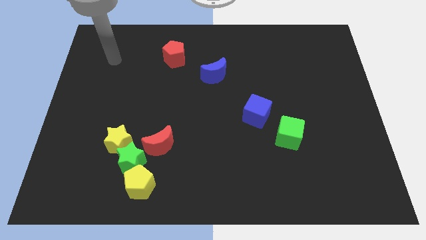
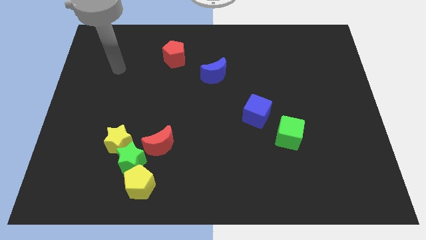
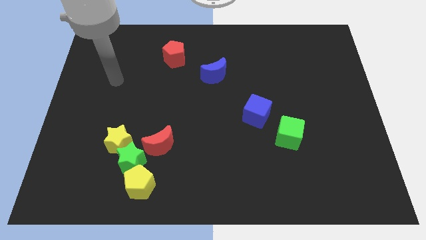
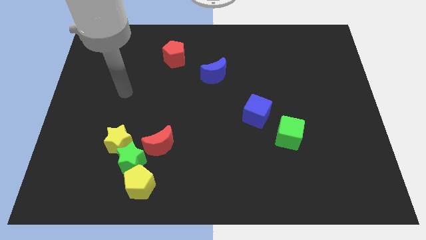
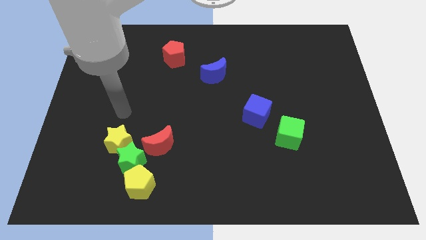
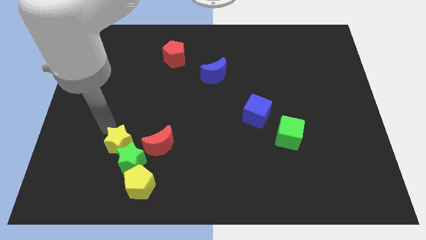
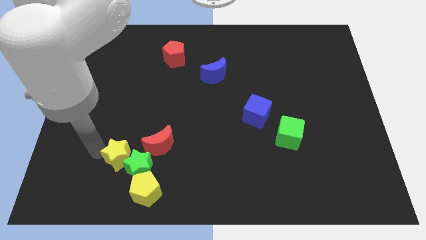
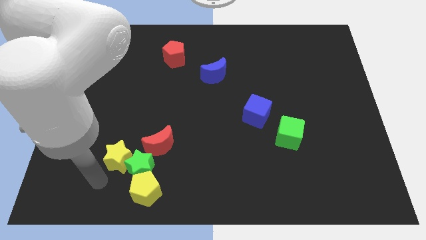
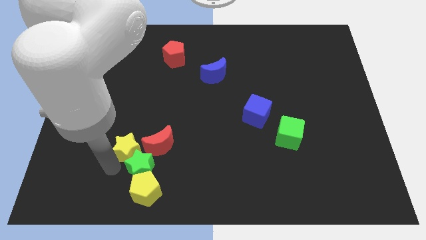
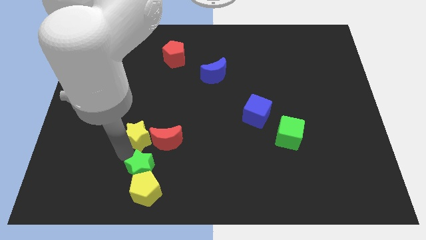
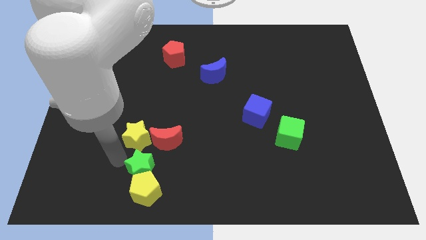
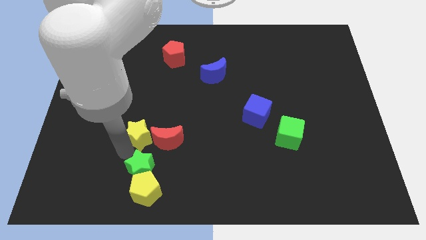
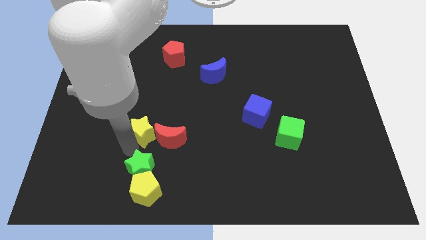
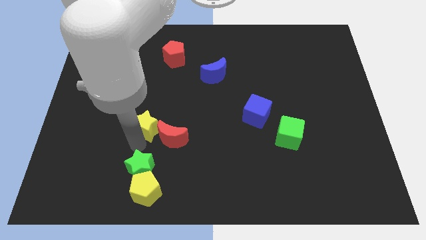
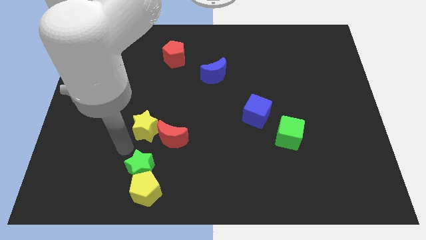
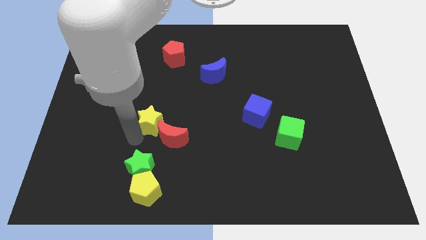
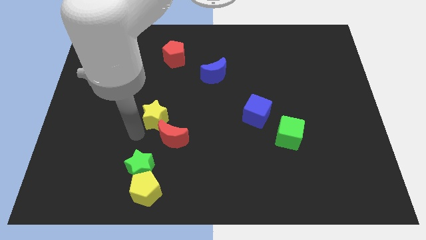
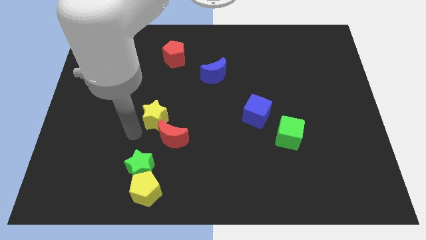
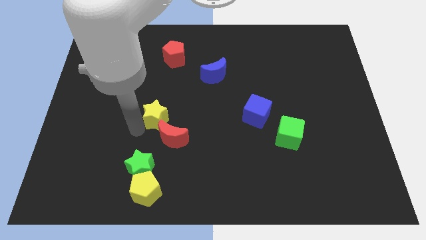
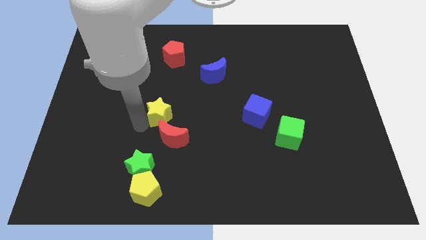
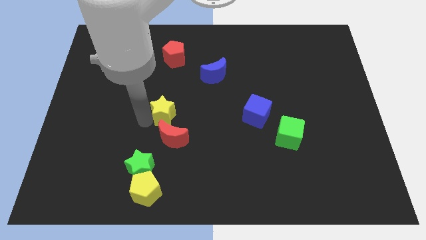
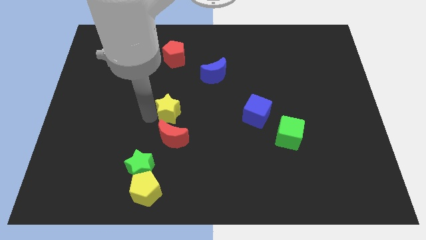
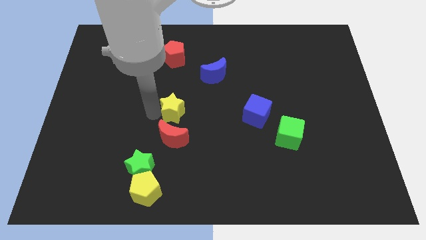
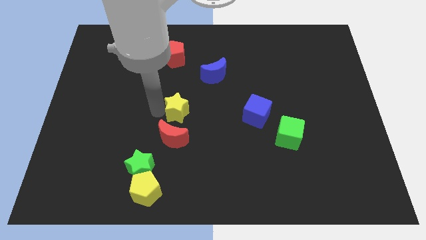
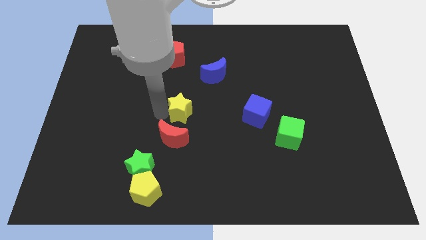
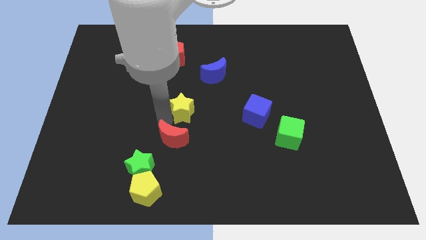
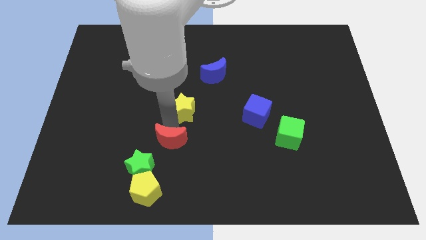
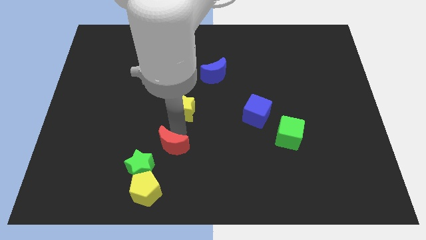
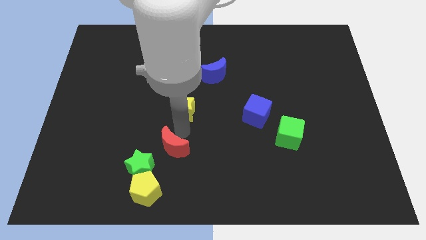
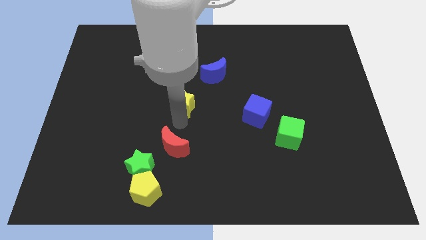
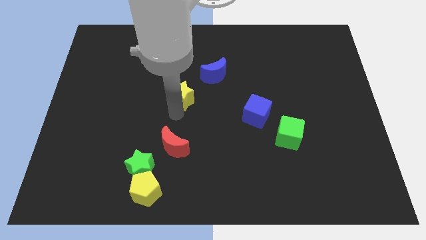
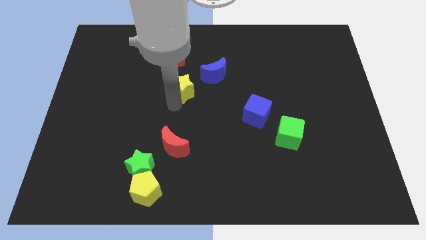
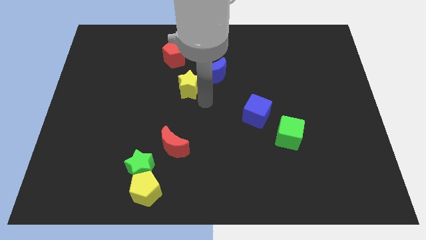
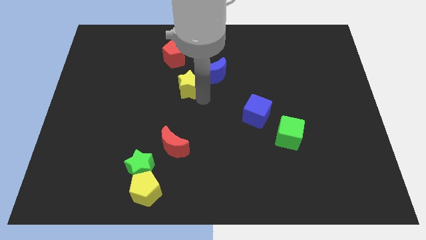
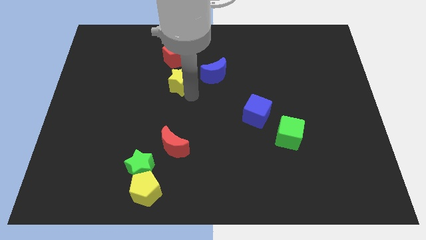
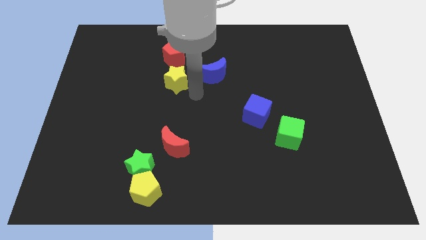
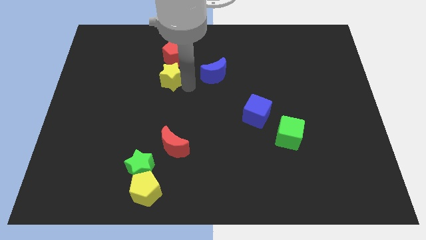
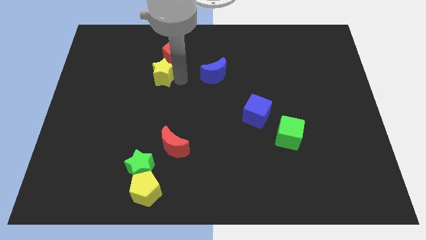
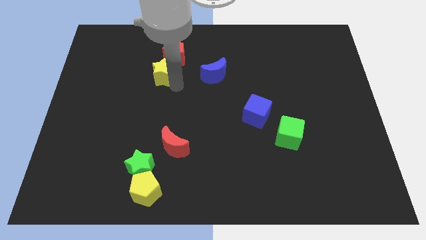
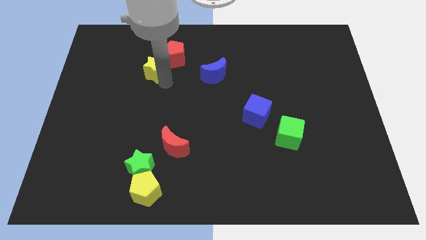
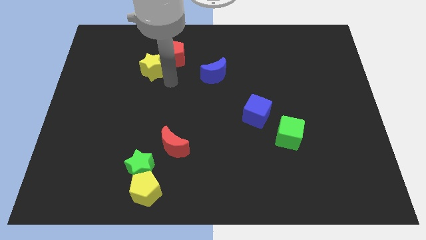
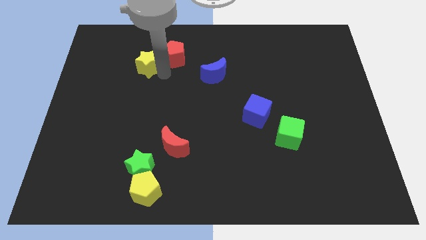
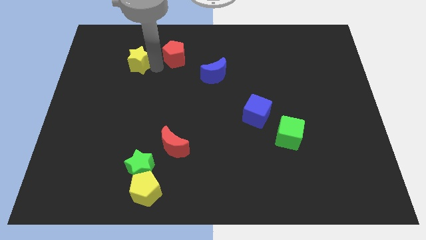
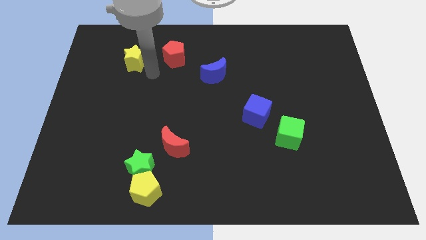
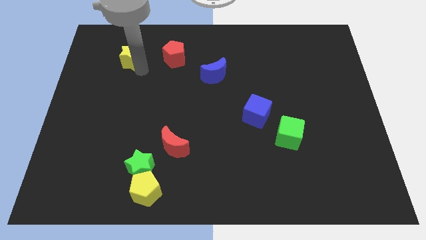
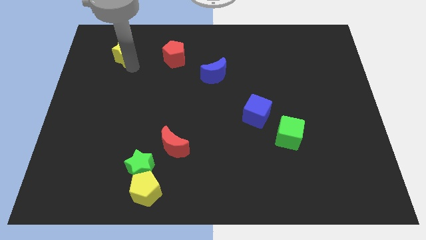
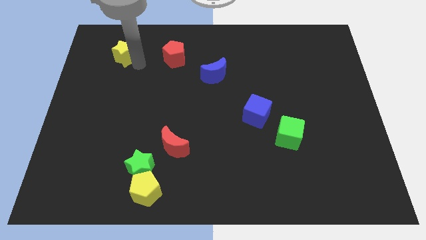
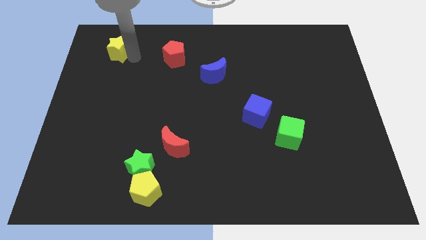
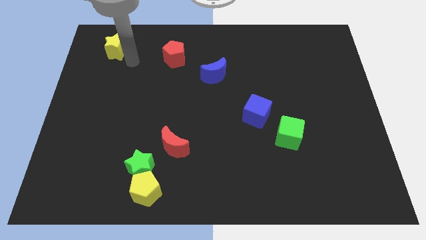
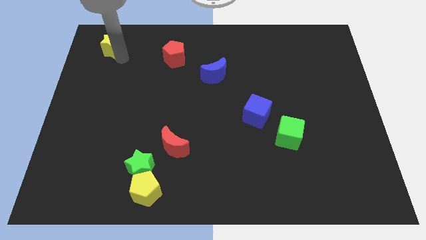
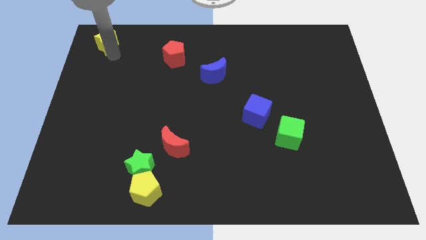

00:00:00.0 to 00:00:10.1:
slide the yellow star to the top left corner

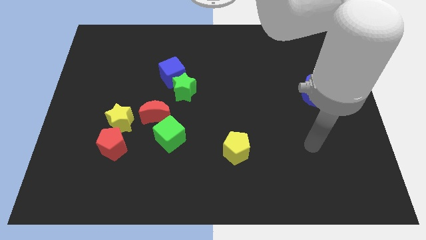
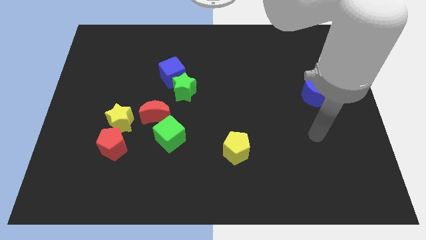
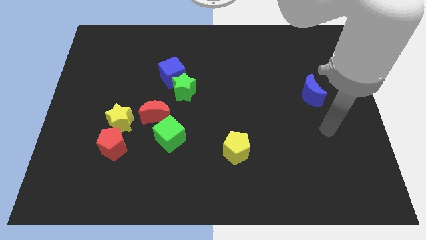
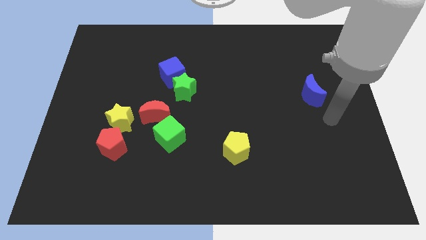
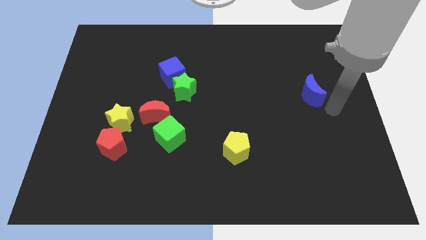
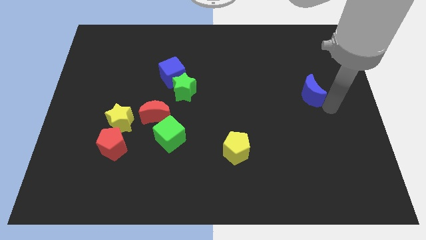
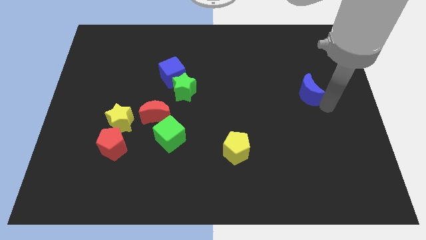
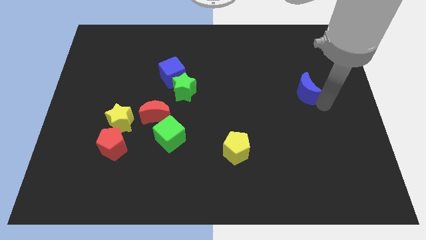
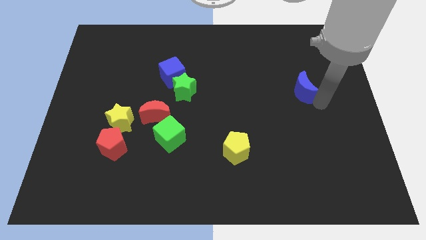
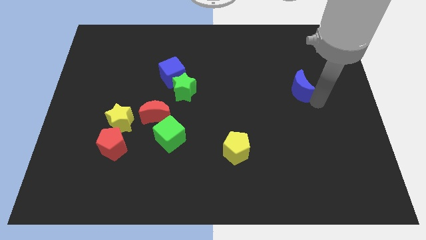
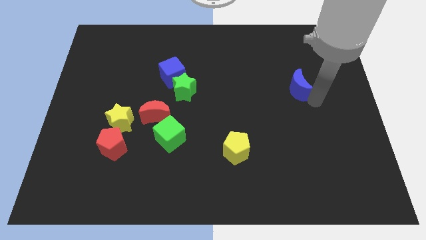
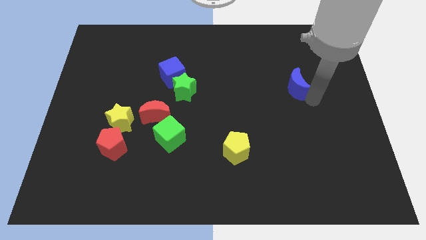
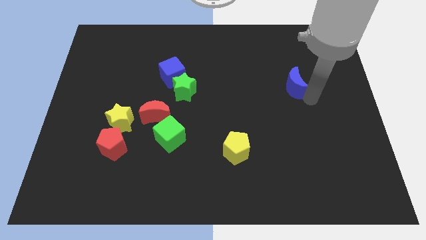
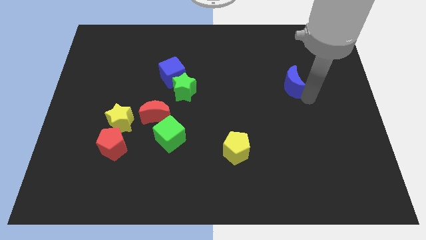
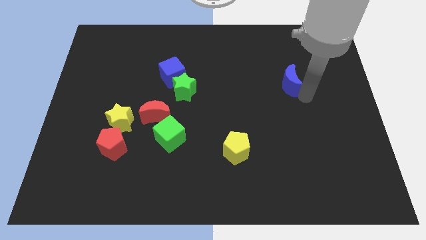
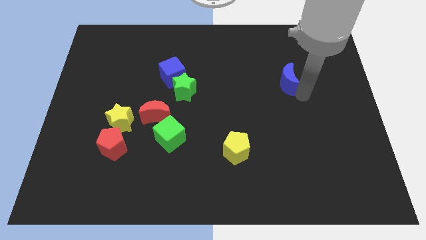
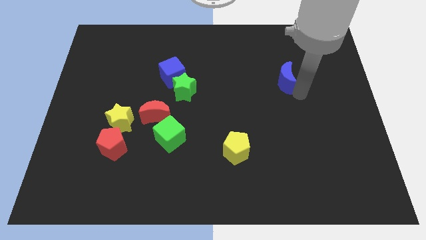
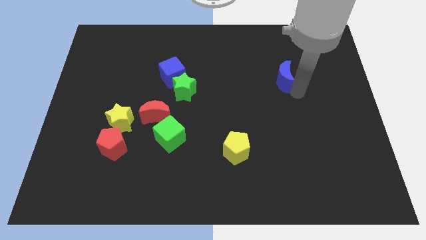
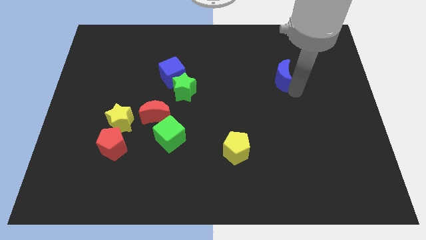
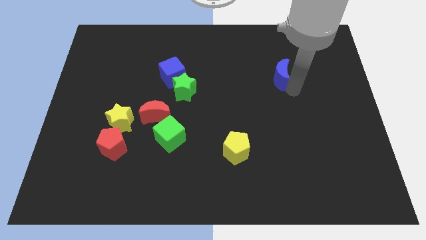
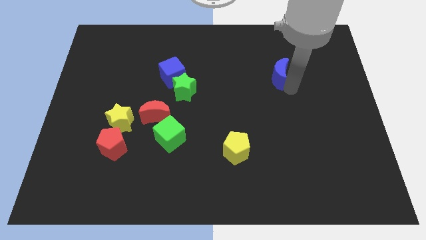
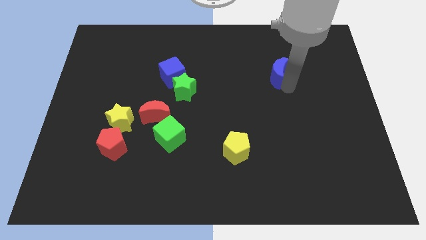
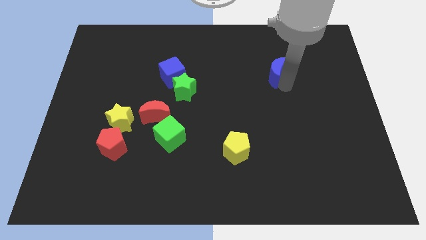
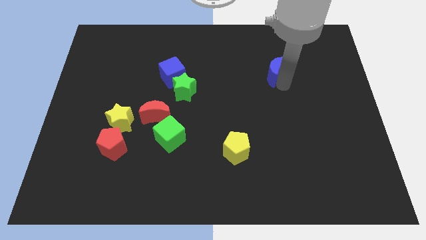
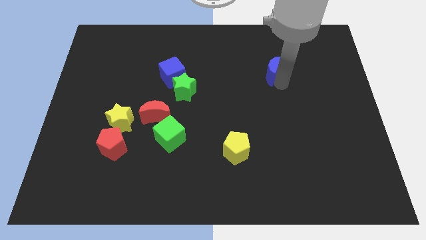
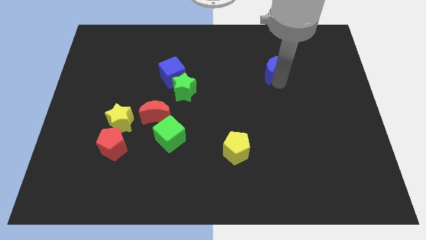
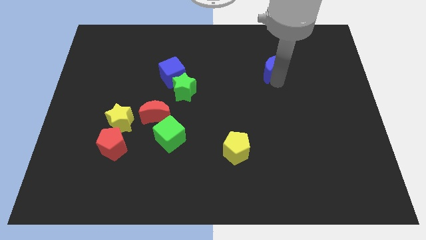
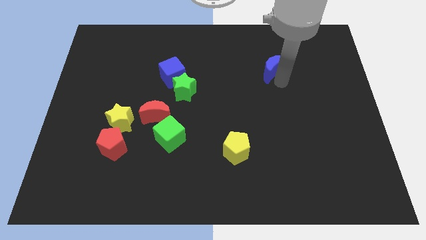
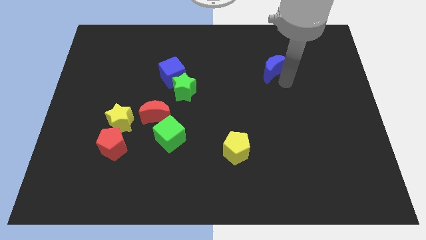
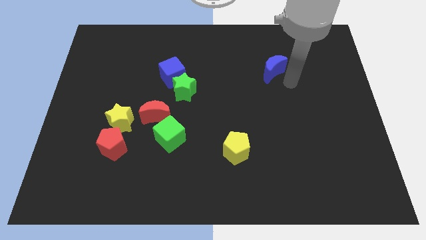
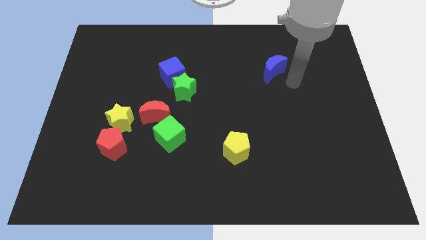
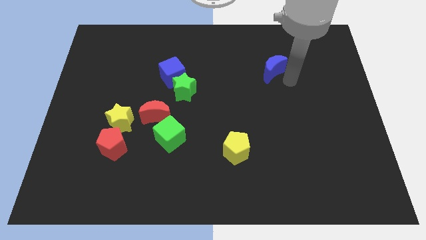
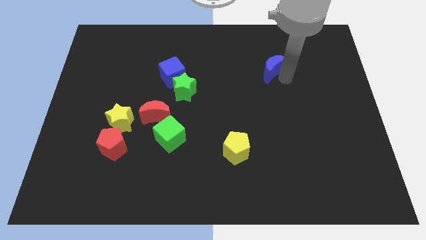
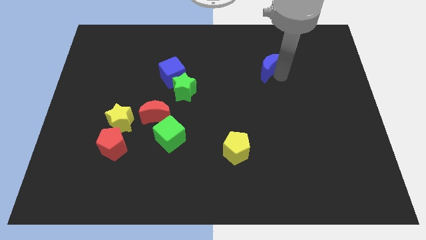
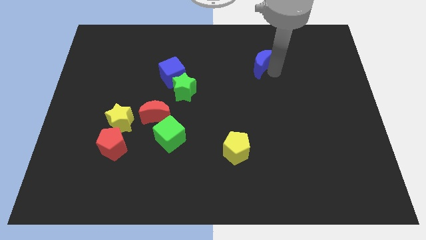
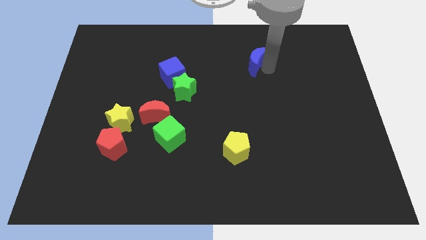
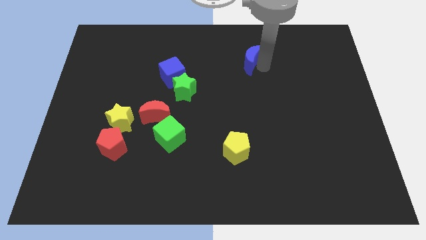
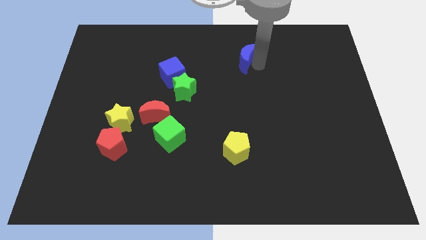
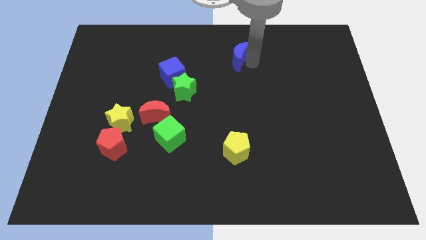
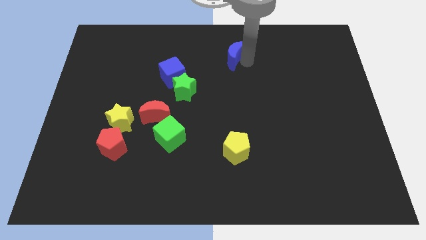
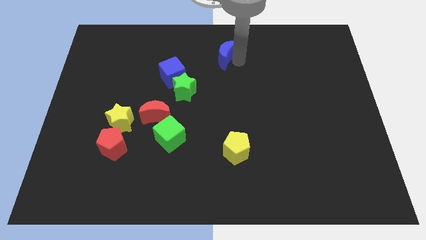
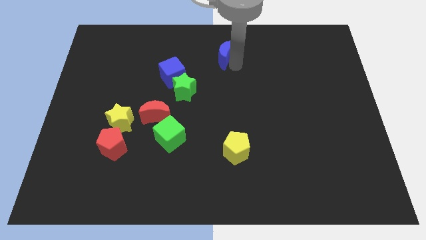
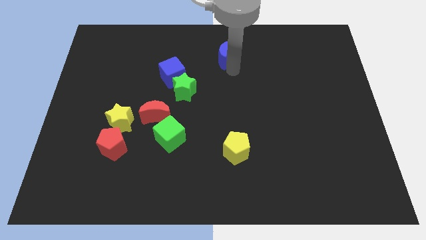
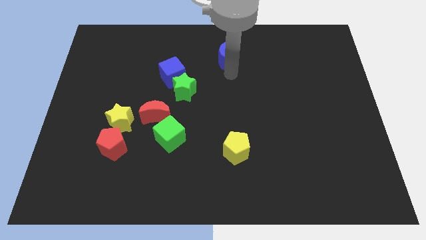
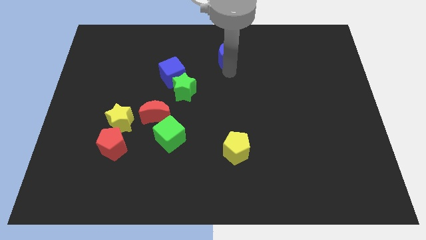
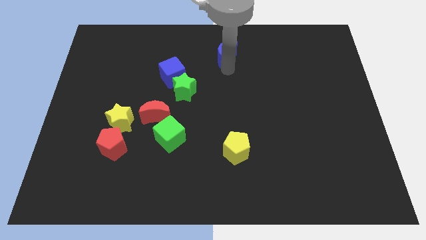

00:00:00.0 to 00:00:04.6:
put the blue moon to the top side
